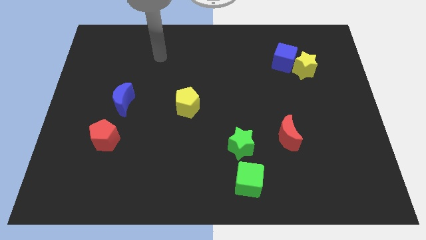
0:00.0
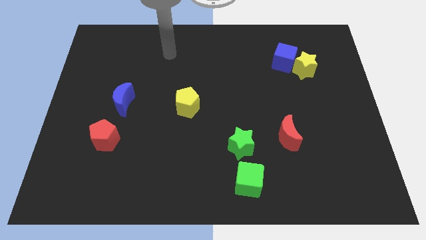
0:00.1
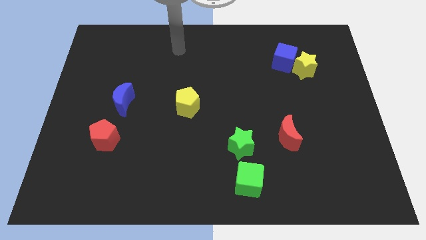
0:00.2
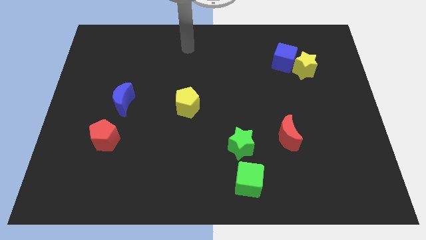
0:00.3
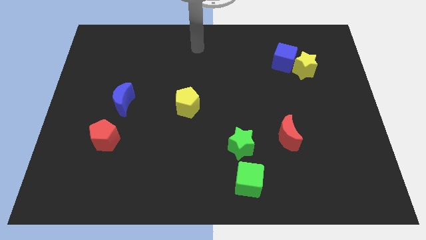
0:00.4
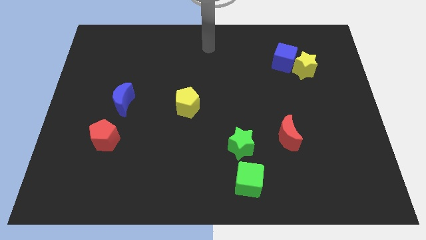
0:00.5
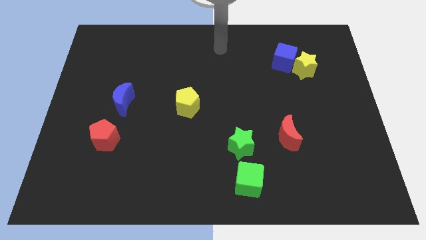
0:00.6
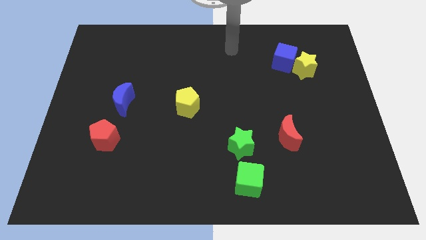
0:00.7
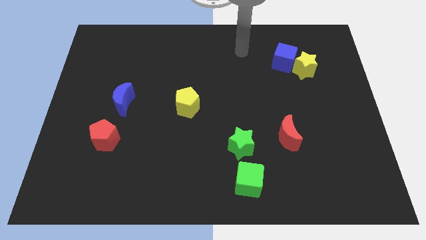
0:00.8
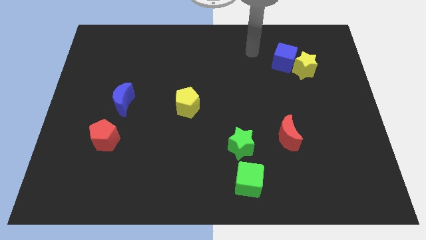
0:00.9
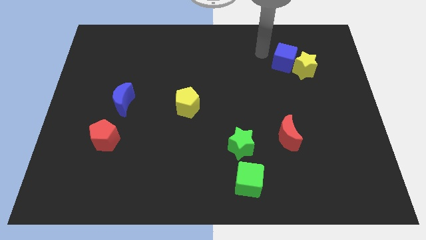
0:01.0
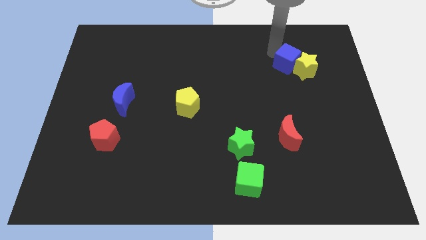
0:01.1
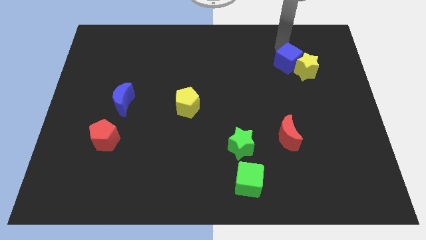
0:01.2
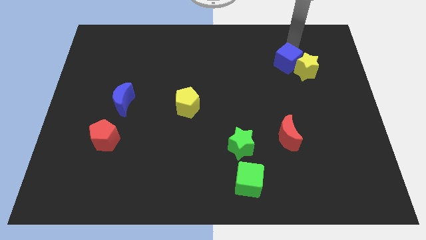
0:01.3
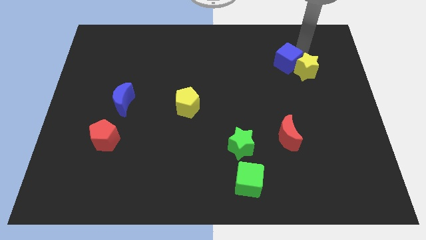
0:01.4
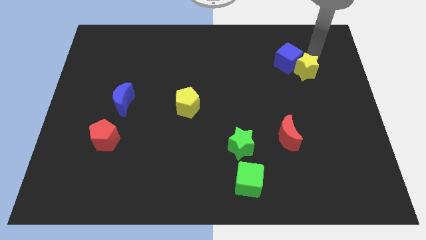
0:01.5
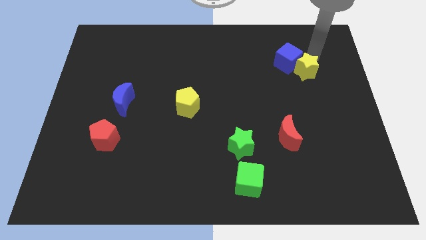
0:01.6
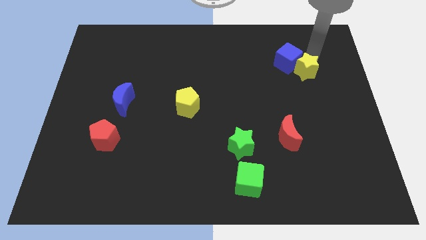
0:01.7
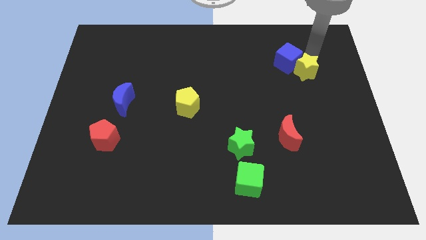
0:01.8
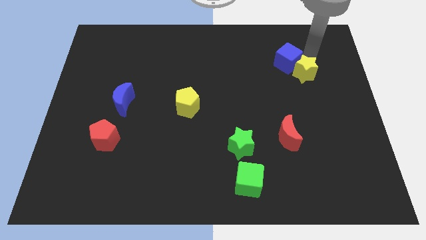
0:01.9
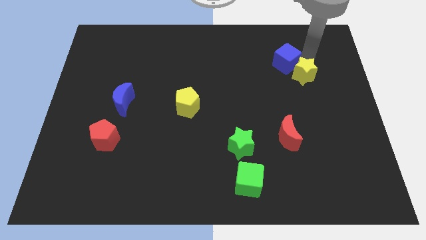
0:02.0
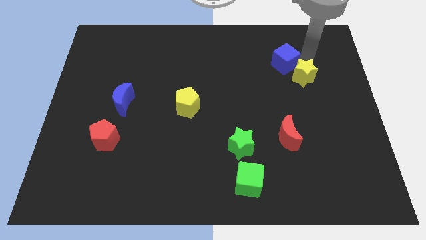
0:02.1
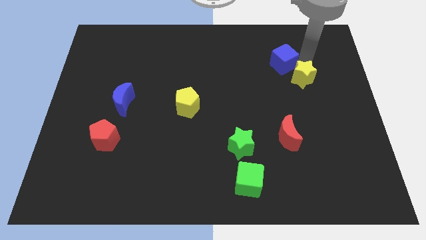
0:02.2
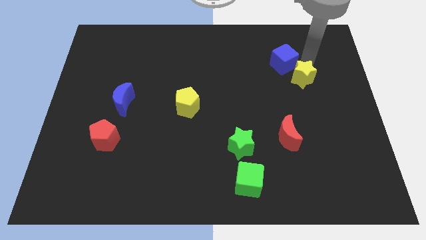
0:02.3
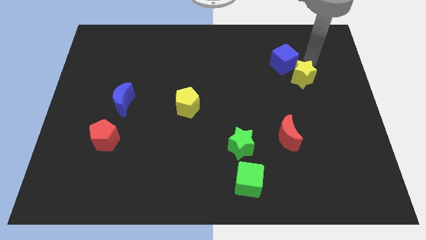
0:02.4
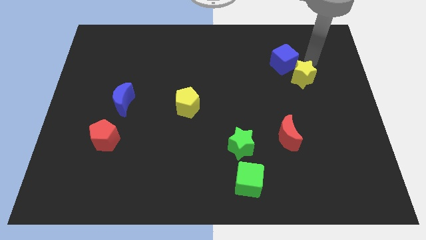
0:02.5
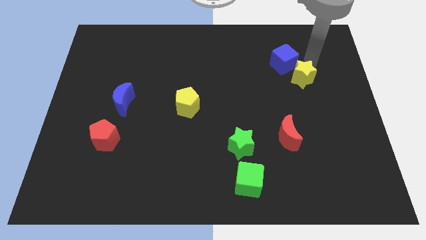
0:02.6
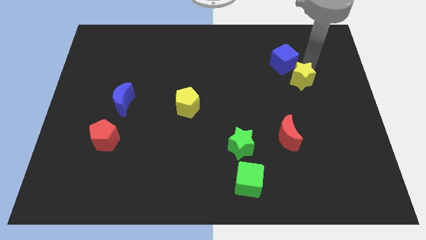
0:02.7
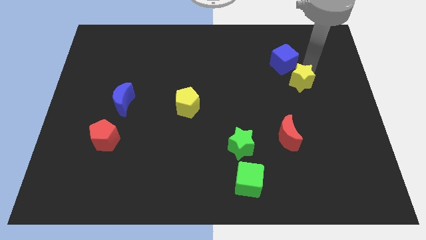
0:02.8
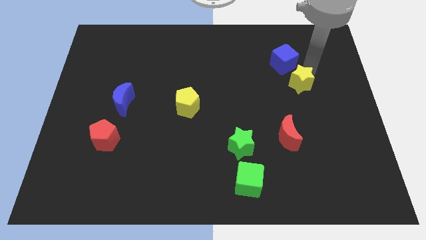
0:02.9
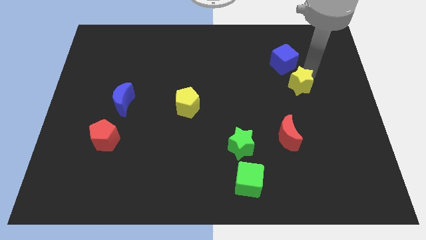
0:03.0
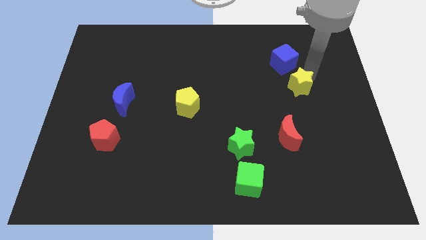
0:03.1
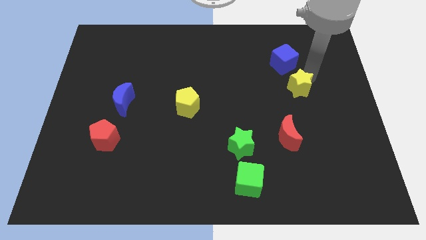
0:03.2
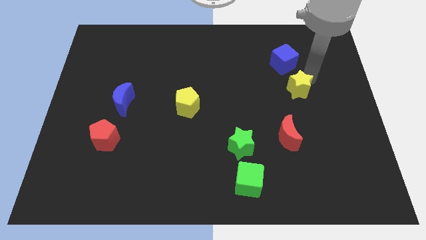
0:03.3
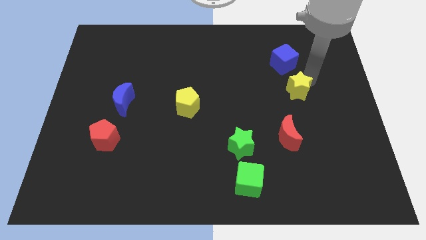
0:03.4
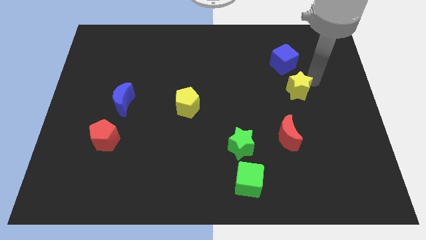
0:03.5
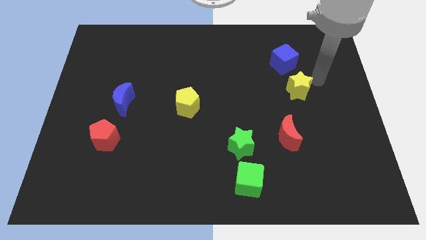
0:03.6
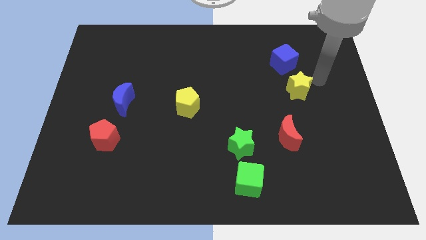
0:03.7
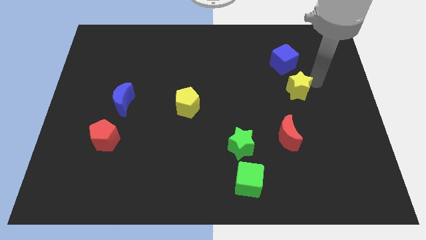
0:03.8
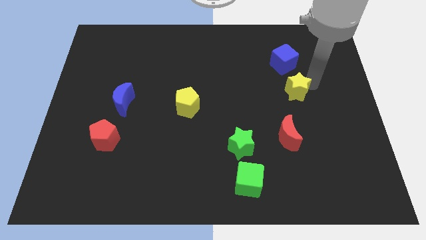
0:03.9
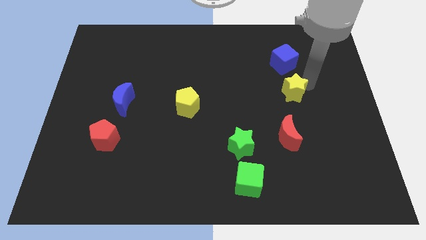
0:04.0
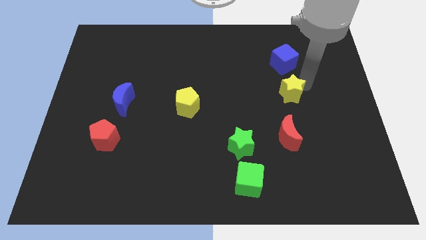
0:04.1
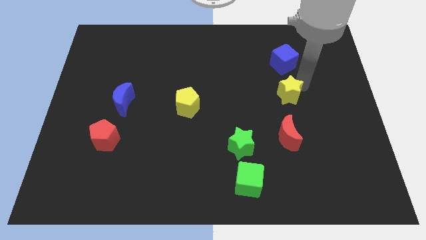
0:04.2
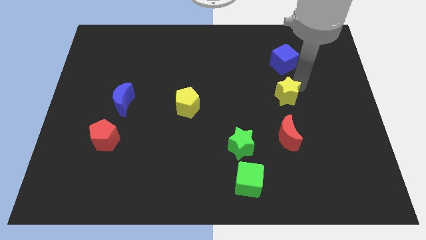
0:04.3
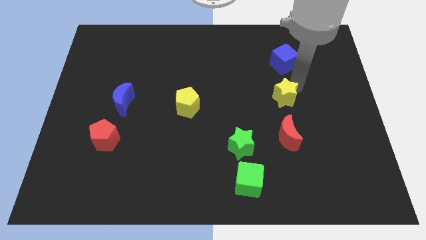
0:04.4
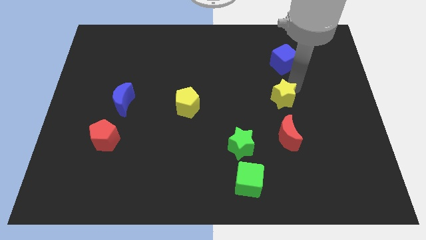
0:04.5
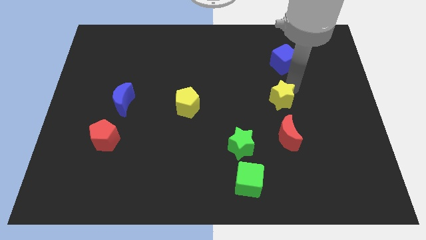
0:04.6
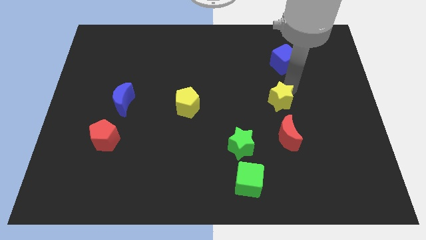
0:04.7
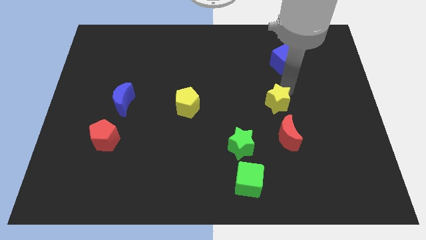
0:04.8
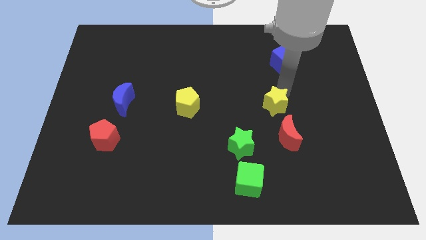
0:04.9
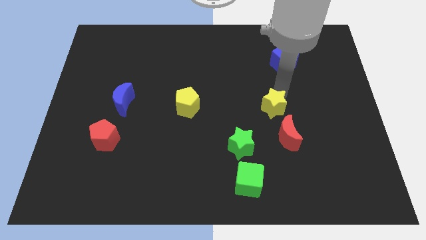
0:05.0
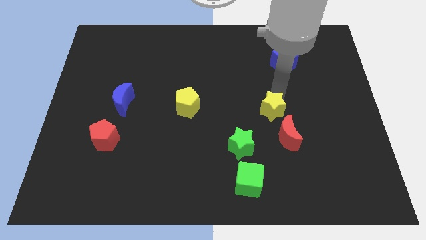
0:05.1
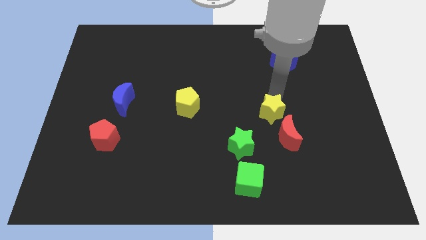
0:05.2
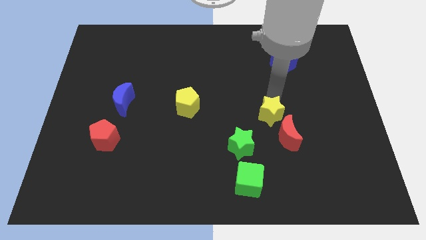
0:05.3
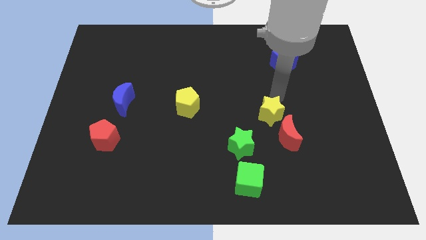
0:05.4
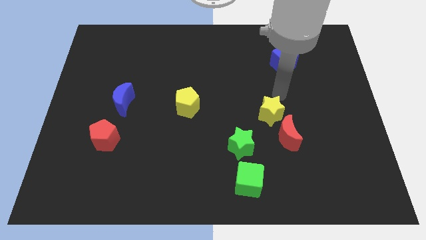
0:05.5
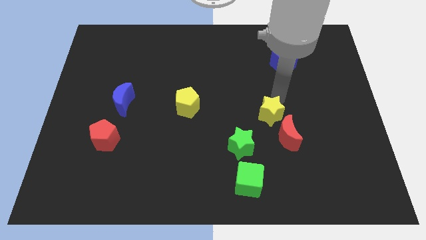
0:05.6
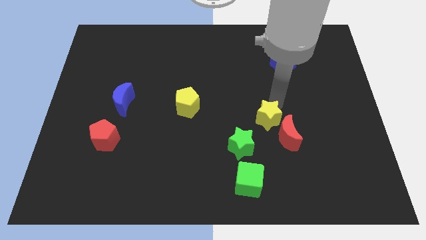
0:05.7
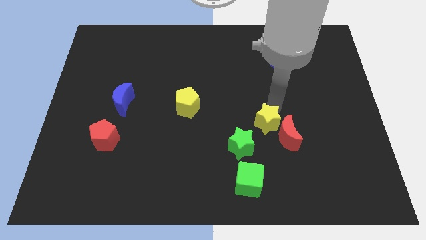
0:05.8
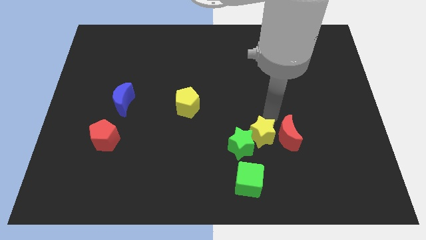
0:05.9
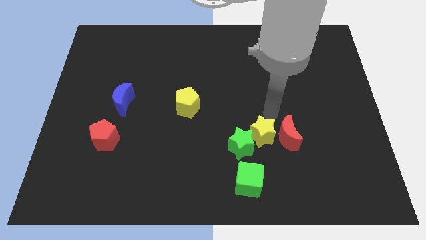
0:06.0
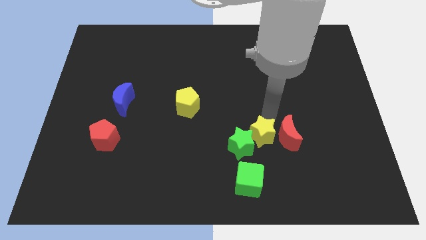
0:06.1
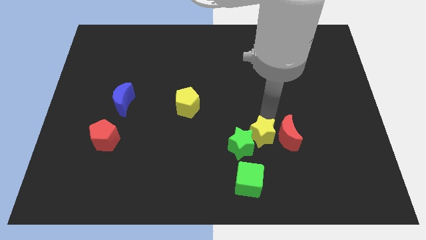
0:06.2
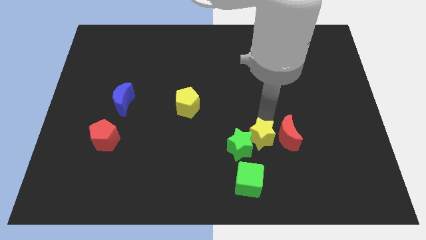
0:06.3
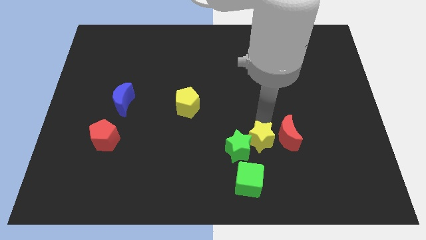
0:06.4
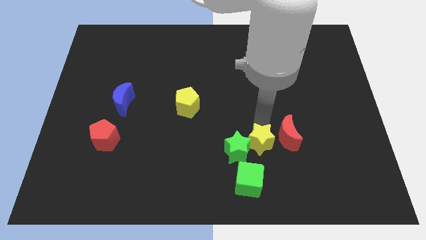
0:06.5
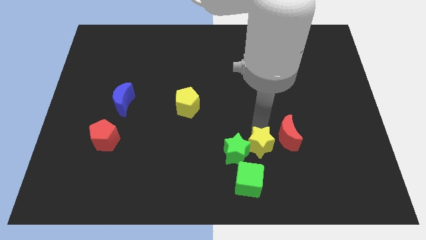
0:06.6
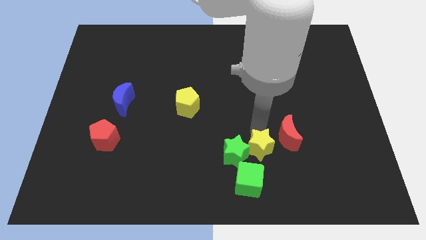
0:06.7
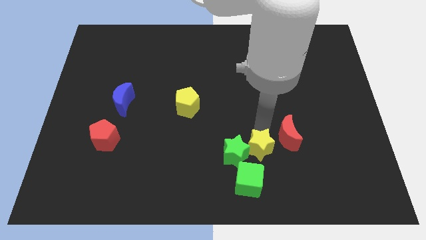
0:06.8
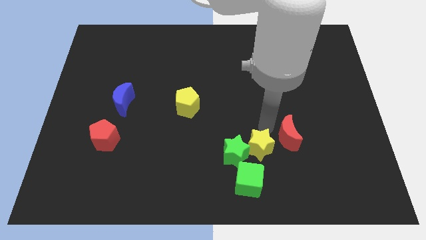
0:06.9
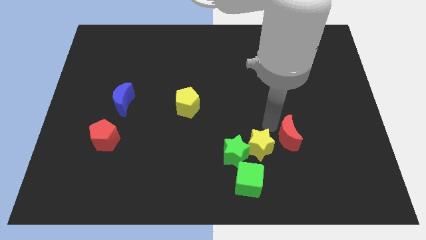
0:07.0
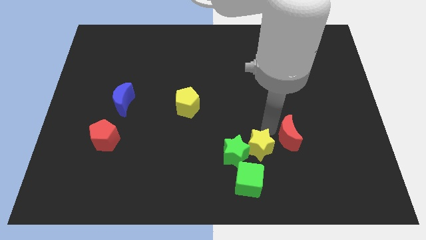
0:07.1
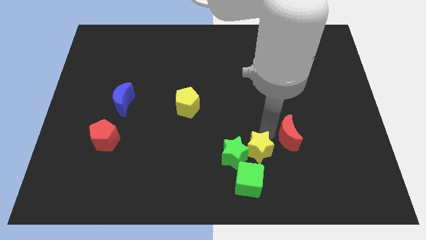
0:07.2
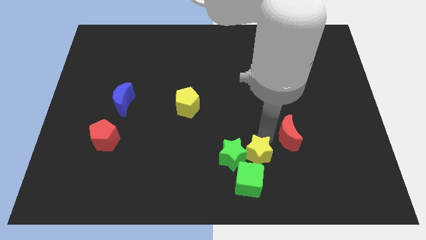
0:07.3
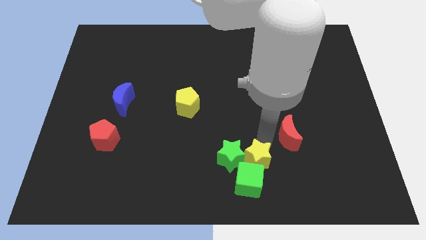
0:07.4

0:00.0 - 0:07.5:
push the yellow star close to the green cube
